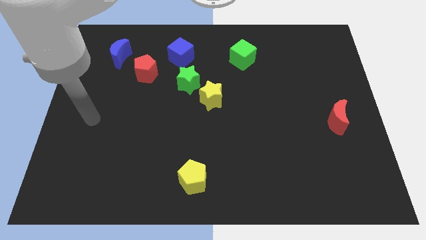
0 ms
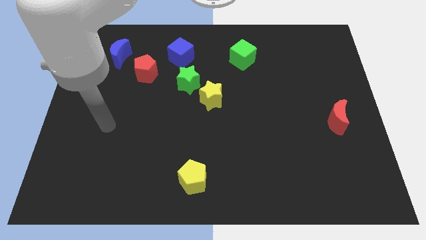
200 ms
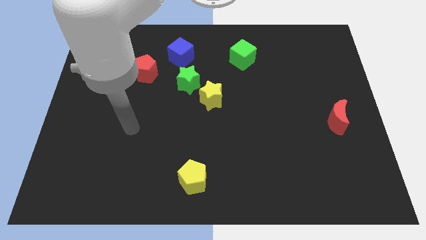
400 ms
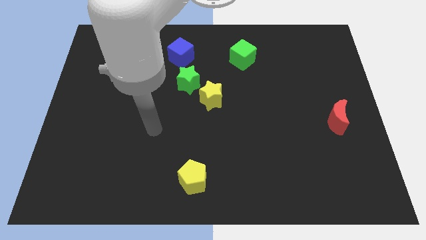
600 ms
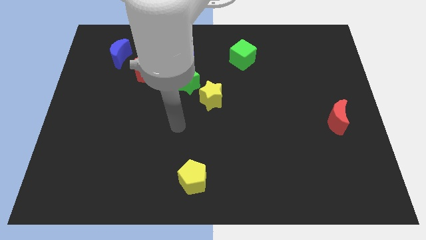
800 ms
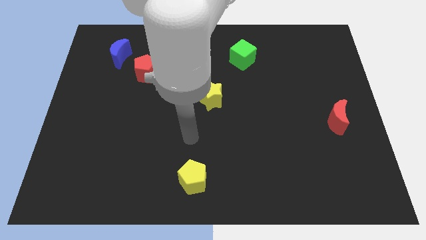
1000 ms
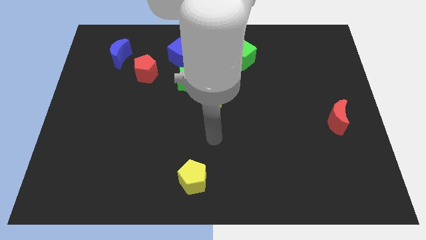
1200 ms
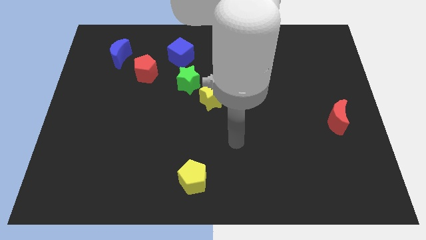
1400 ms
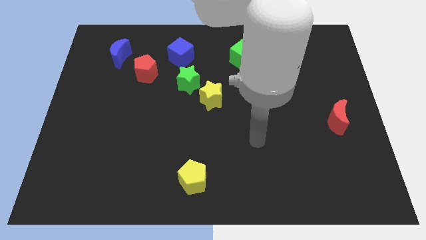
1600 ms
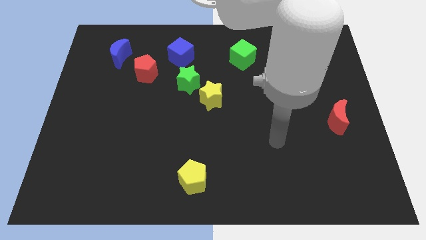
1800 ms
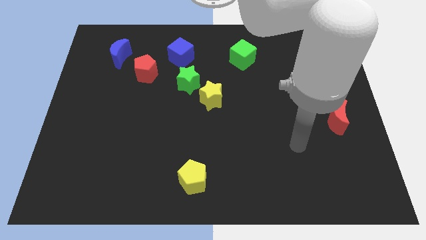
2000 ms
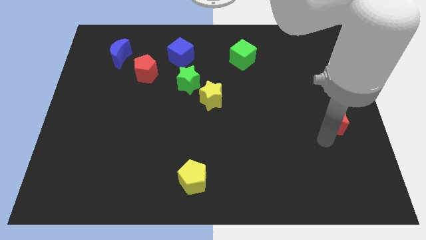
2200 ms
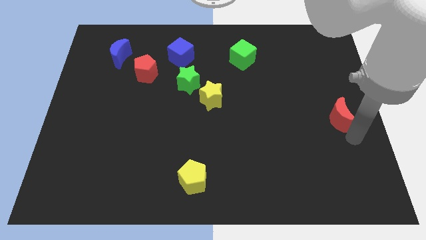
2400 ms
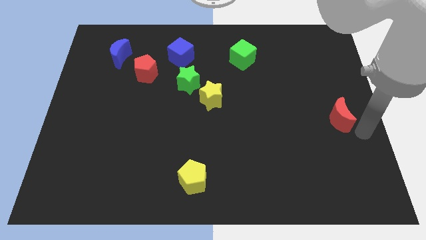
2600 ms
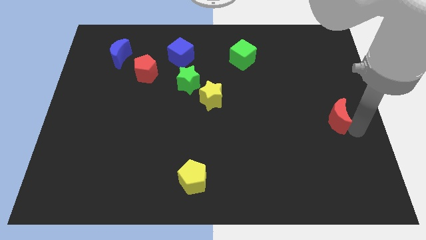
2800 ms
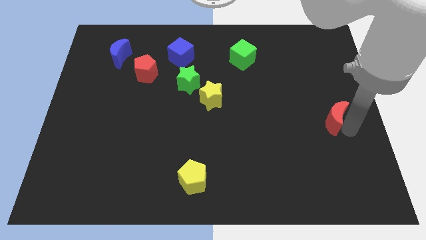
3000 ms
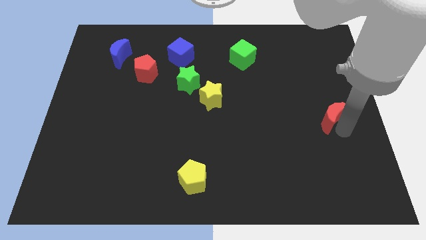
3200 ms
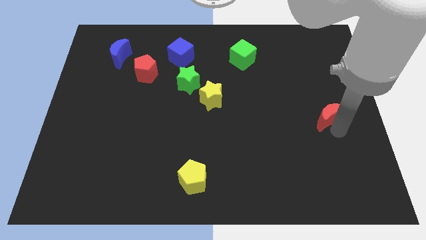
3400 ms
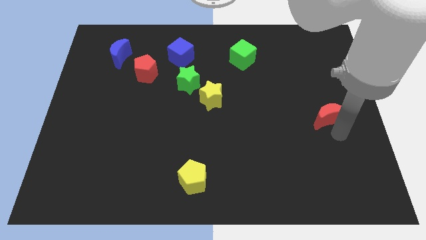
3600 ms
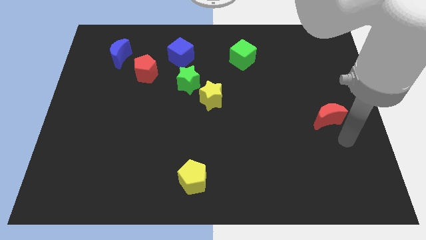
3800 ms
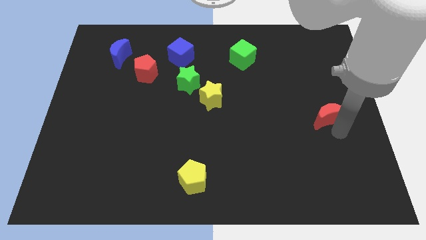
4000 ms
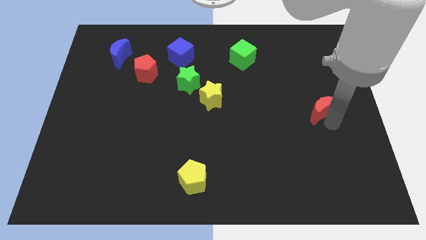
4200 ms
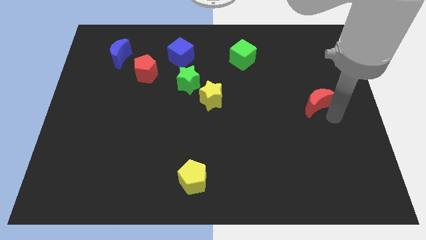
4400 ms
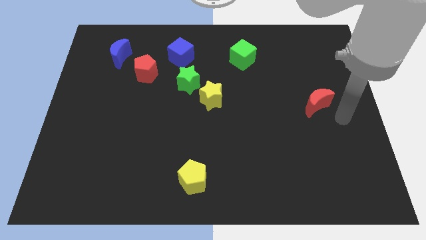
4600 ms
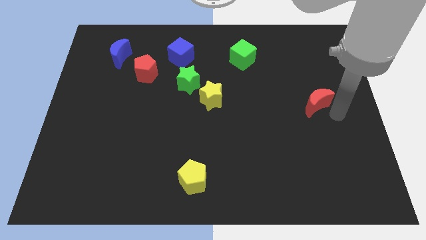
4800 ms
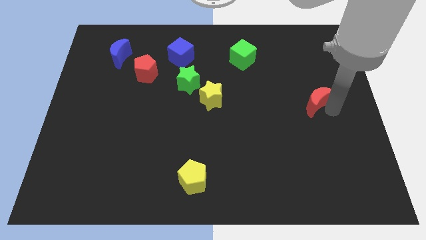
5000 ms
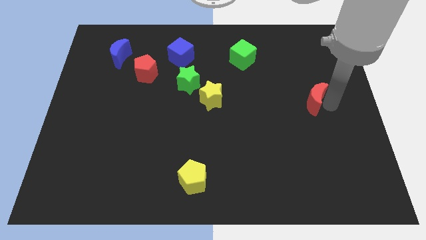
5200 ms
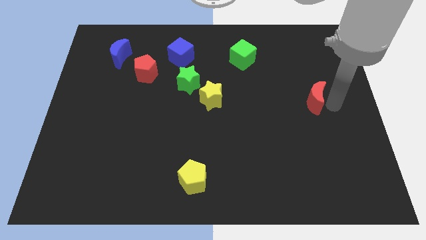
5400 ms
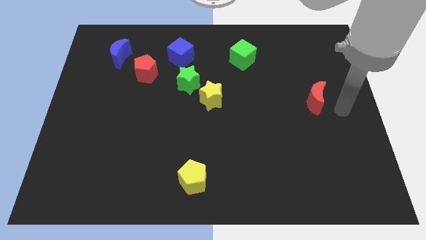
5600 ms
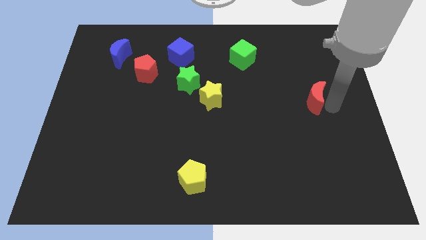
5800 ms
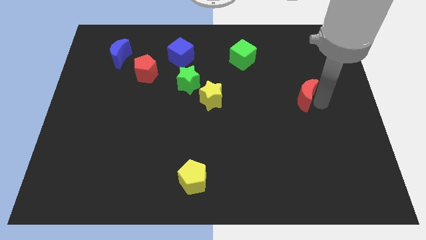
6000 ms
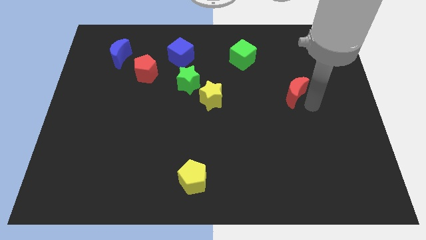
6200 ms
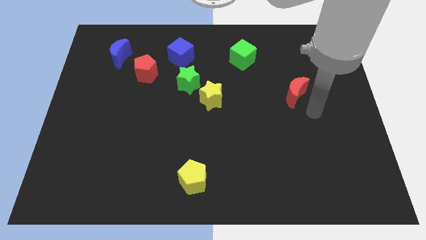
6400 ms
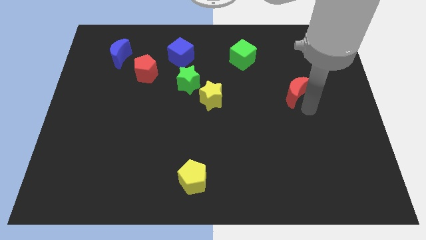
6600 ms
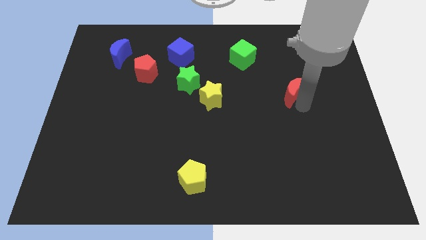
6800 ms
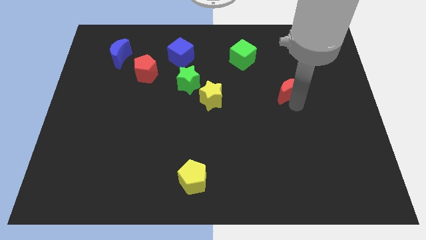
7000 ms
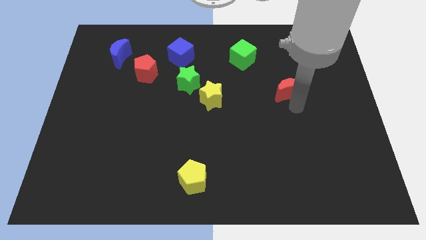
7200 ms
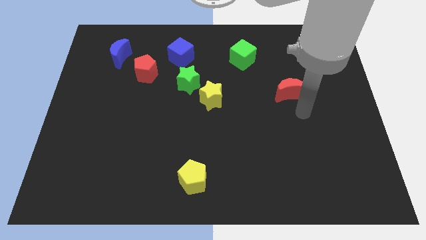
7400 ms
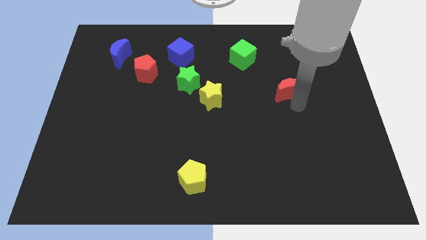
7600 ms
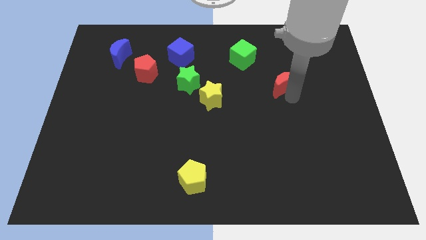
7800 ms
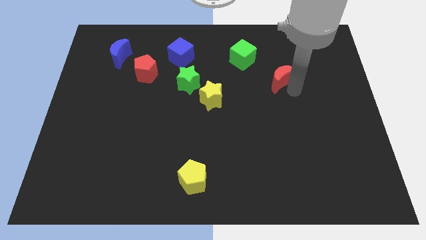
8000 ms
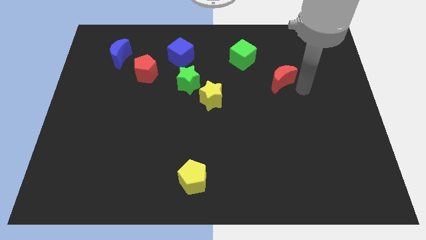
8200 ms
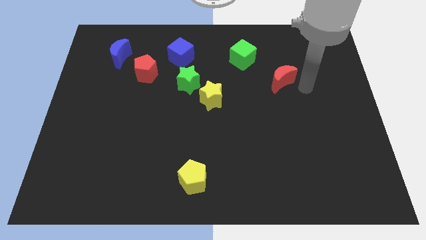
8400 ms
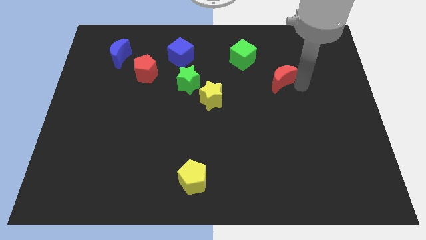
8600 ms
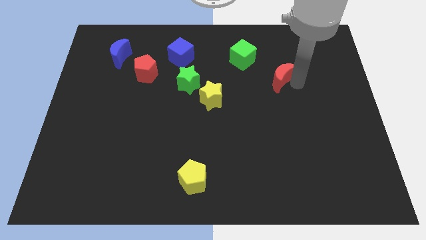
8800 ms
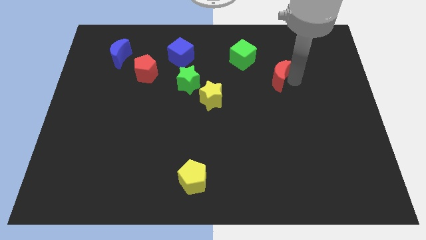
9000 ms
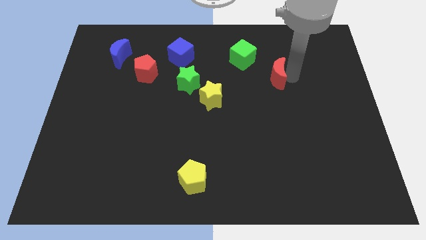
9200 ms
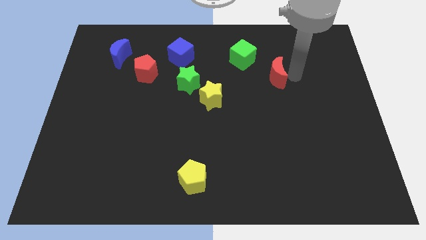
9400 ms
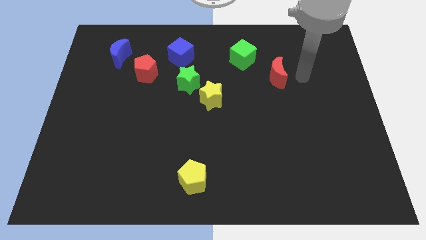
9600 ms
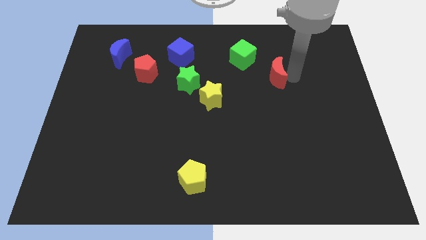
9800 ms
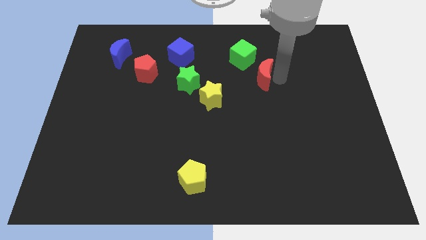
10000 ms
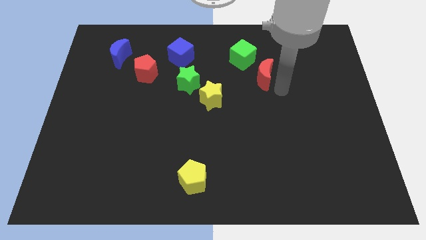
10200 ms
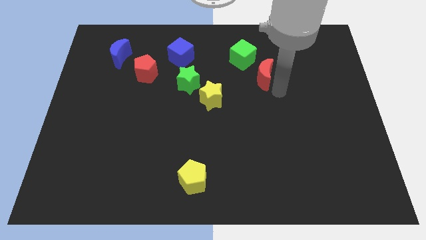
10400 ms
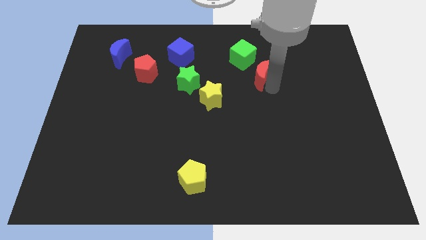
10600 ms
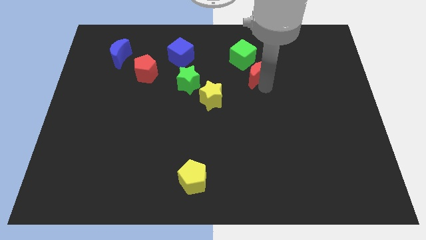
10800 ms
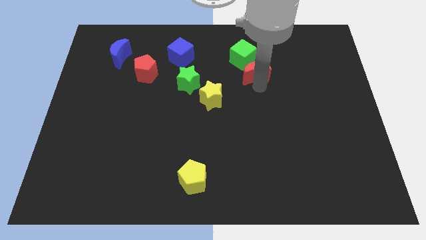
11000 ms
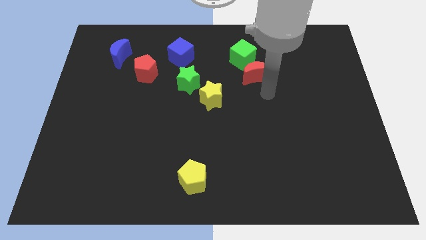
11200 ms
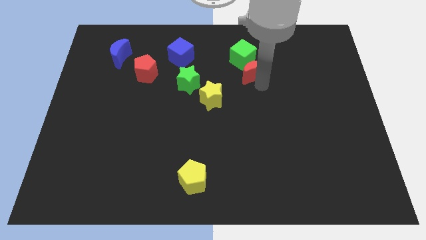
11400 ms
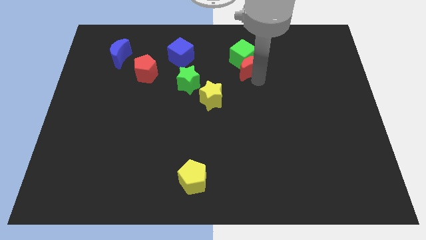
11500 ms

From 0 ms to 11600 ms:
move the red moon close to the green cube

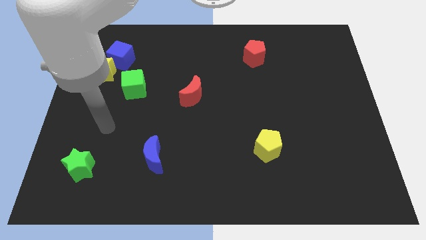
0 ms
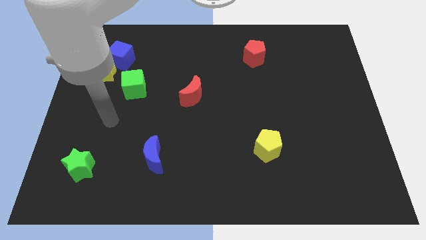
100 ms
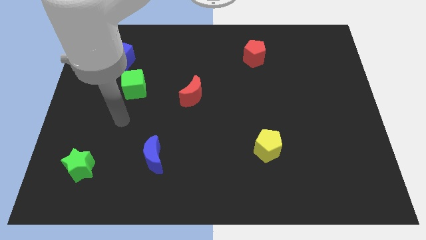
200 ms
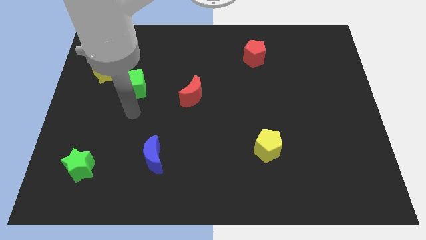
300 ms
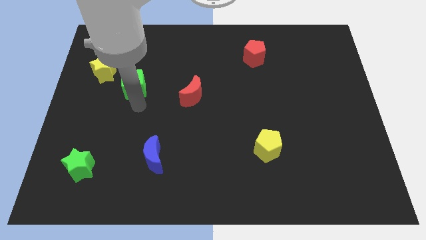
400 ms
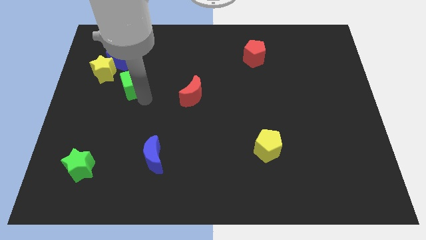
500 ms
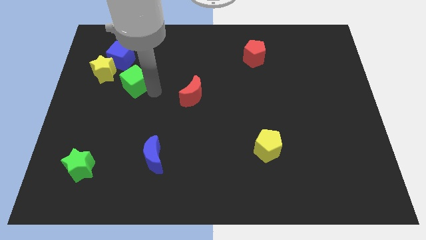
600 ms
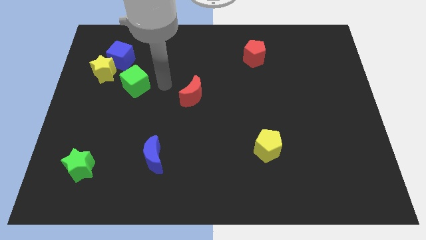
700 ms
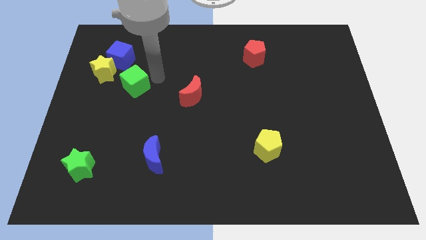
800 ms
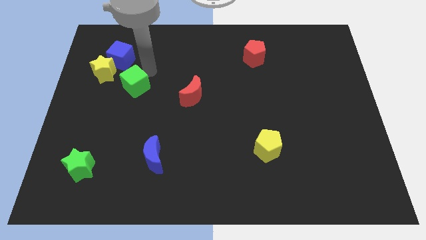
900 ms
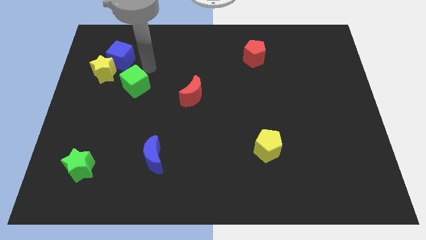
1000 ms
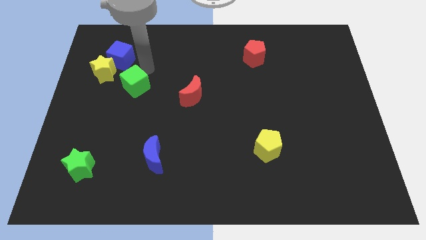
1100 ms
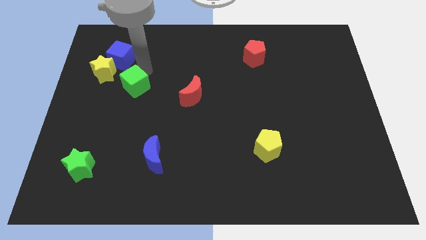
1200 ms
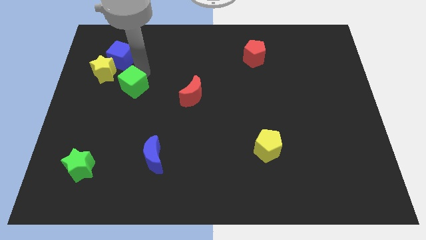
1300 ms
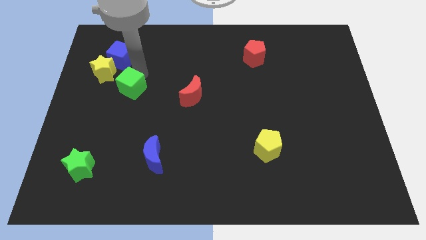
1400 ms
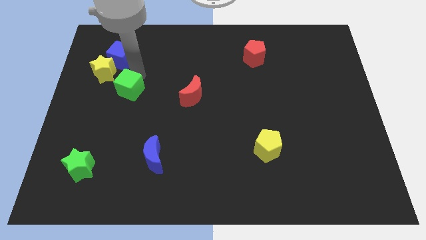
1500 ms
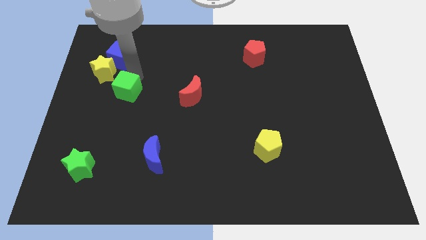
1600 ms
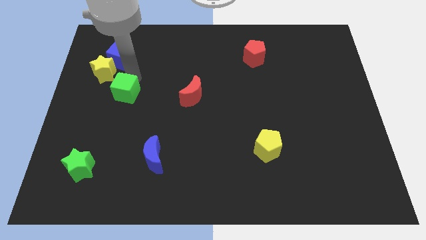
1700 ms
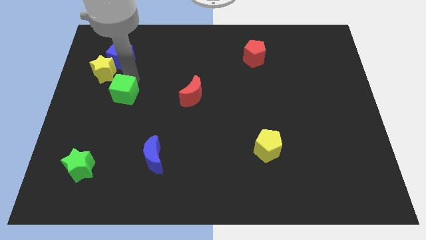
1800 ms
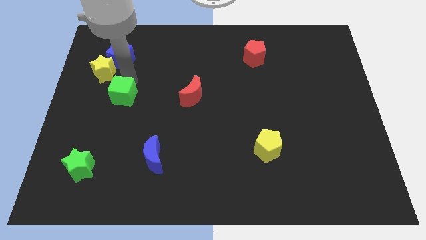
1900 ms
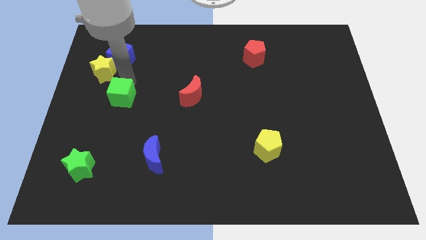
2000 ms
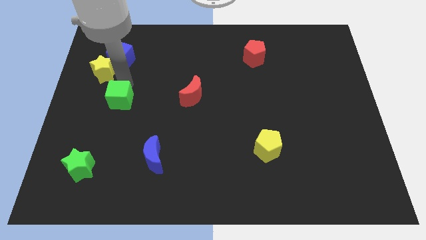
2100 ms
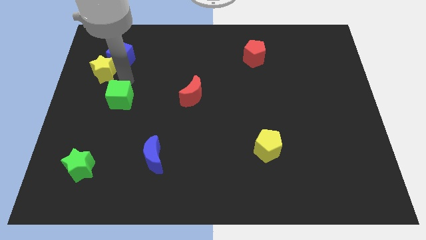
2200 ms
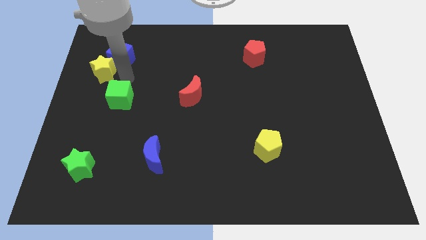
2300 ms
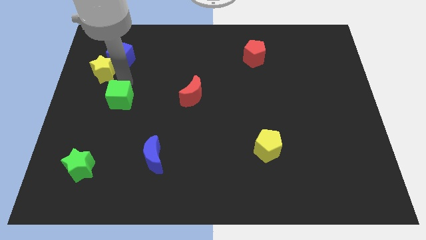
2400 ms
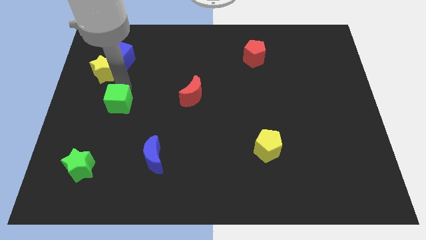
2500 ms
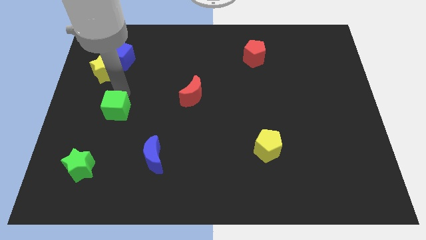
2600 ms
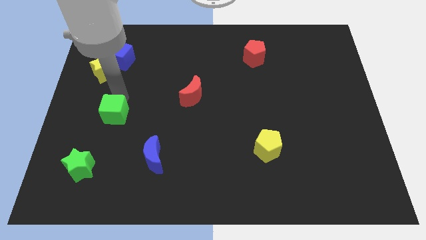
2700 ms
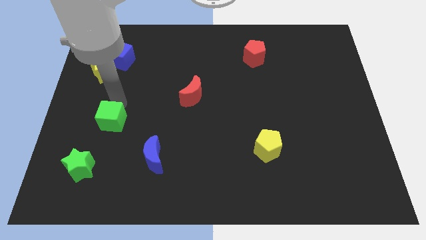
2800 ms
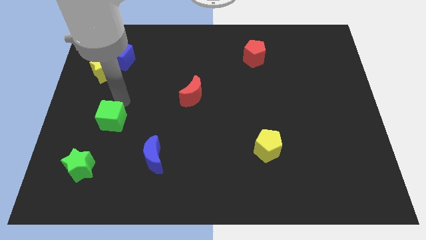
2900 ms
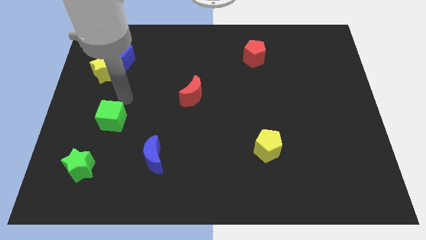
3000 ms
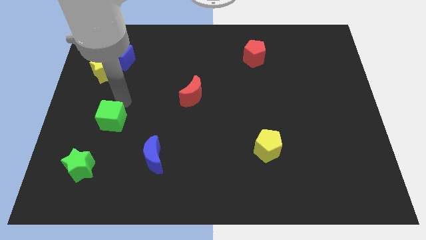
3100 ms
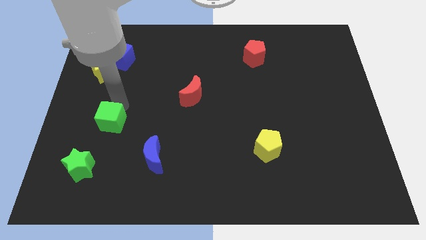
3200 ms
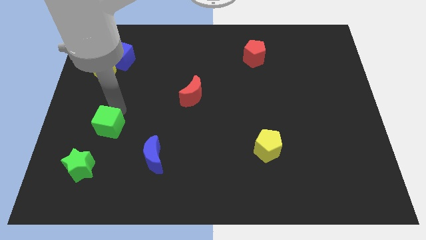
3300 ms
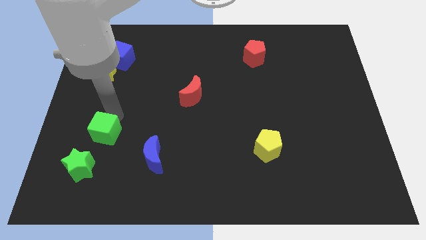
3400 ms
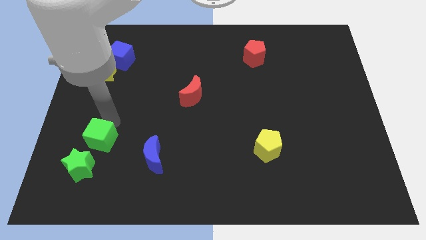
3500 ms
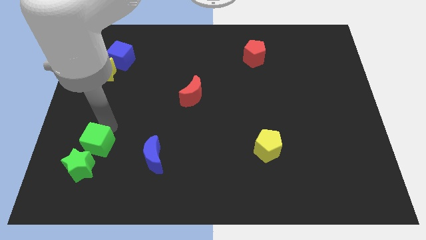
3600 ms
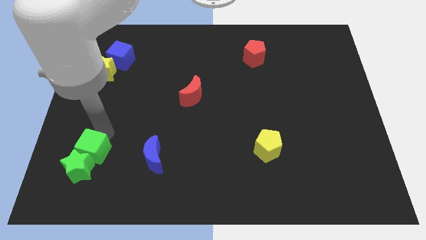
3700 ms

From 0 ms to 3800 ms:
push the green cube close to the green star
